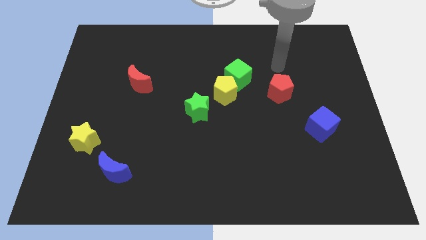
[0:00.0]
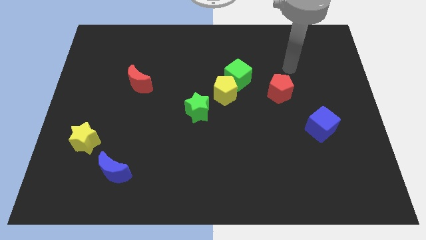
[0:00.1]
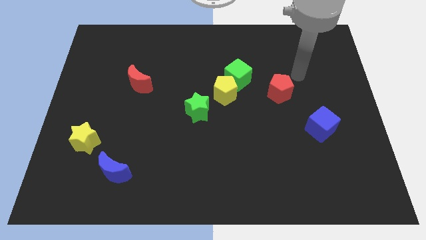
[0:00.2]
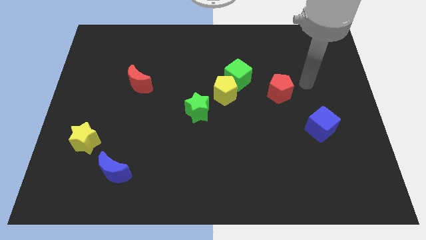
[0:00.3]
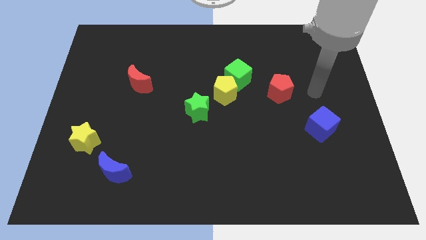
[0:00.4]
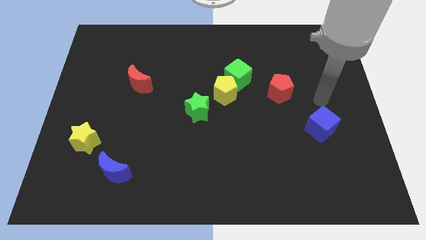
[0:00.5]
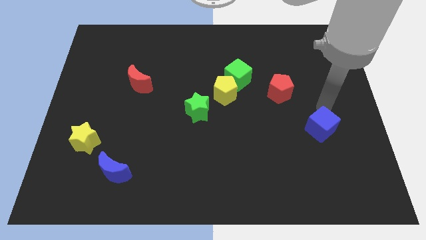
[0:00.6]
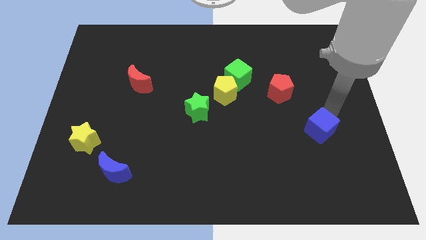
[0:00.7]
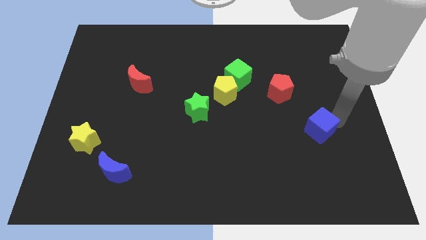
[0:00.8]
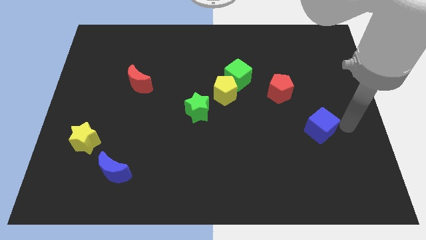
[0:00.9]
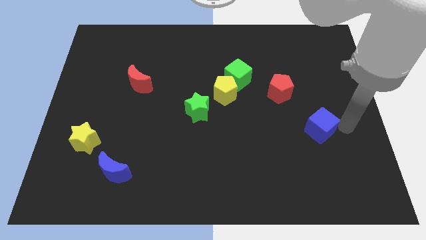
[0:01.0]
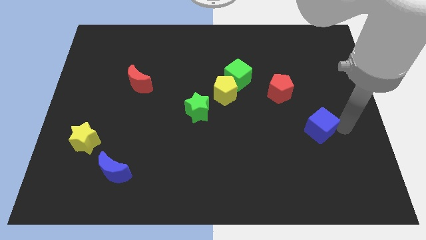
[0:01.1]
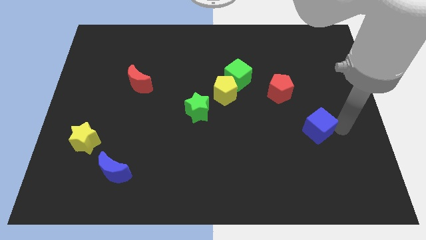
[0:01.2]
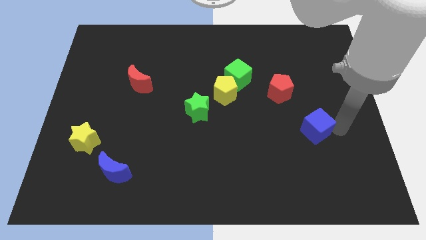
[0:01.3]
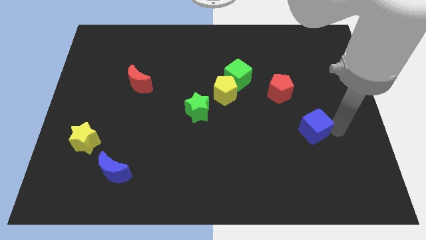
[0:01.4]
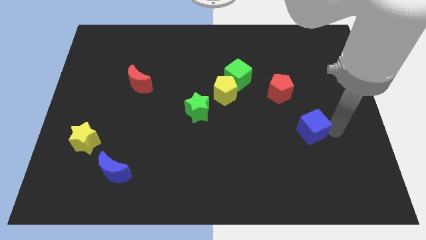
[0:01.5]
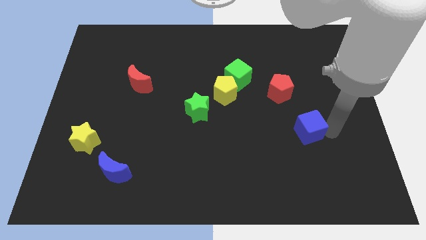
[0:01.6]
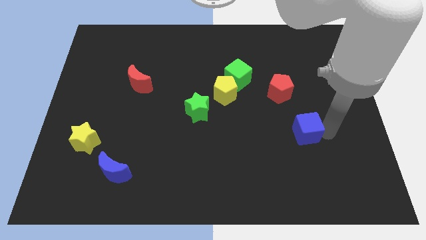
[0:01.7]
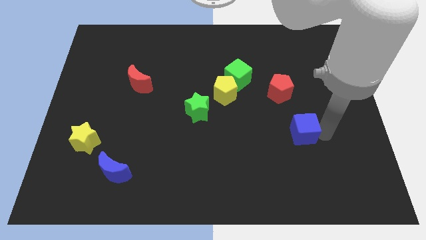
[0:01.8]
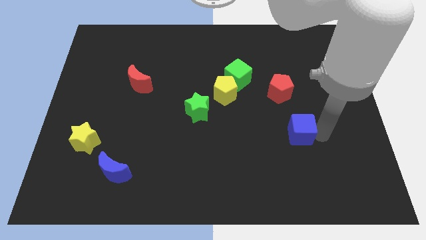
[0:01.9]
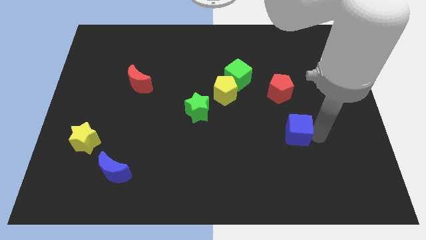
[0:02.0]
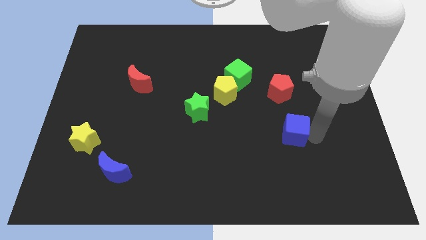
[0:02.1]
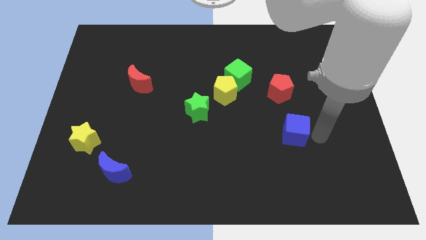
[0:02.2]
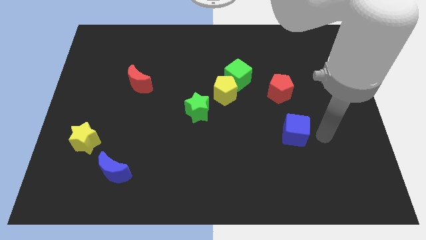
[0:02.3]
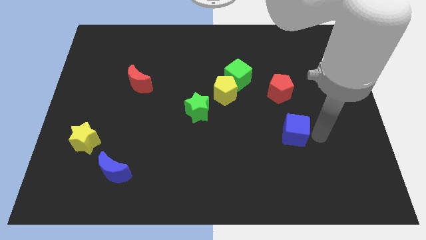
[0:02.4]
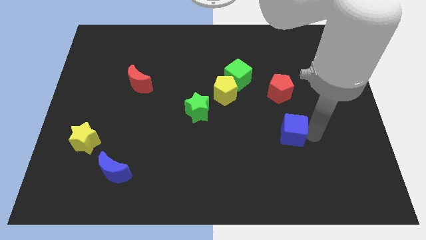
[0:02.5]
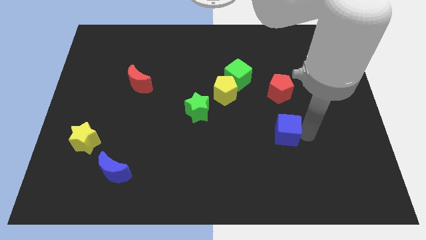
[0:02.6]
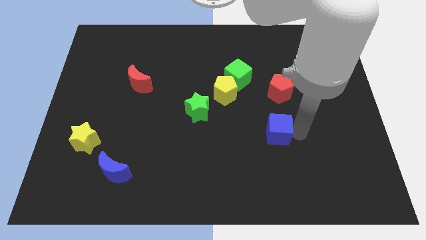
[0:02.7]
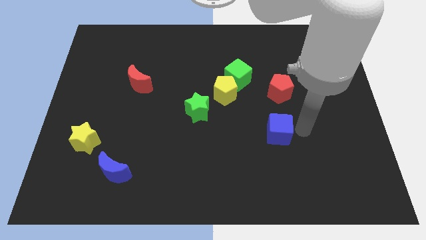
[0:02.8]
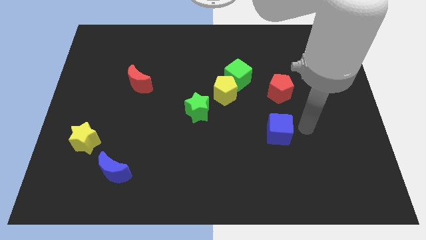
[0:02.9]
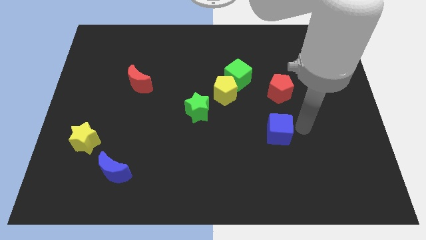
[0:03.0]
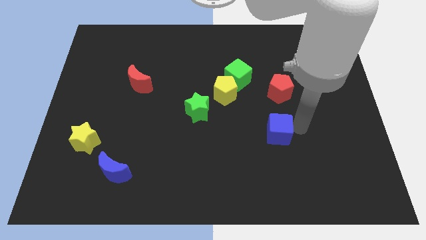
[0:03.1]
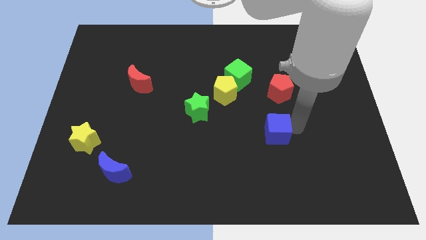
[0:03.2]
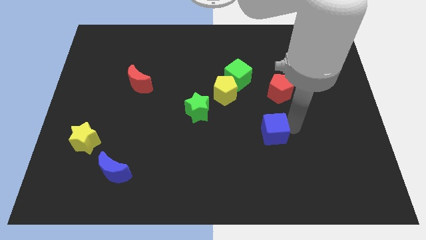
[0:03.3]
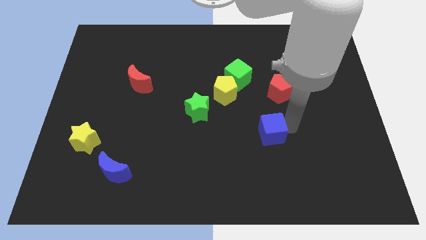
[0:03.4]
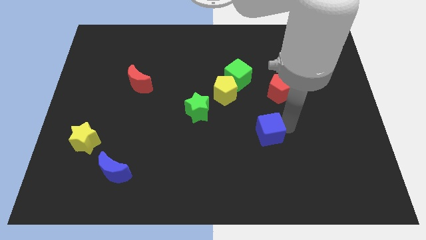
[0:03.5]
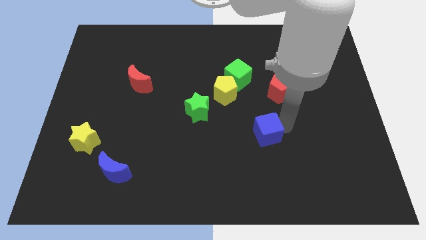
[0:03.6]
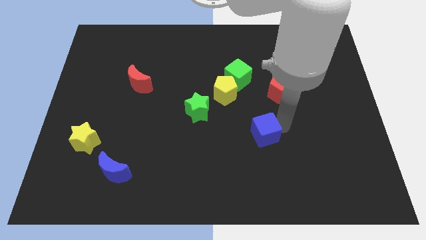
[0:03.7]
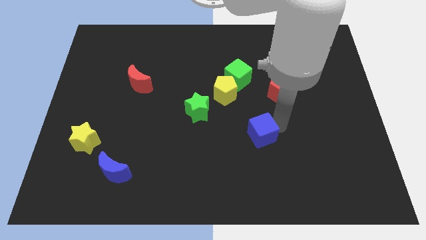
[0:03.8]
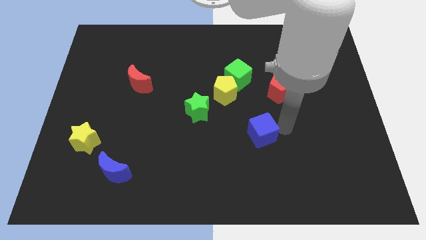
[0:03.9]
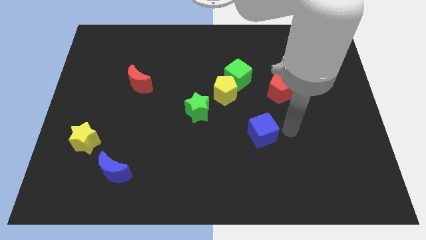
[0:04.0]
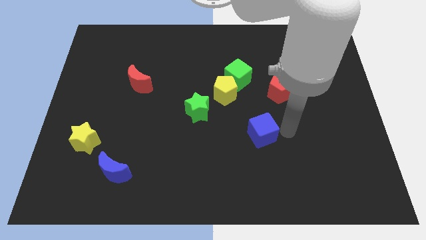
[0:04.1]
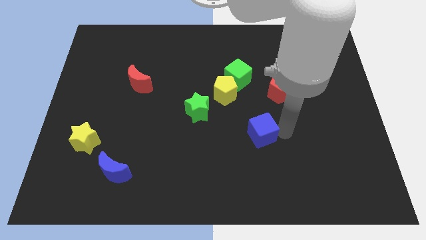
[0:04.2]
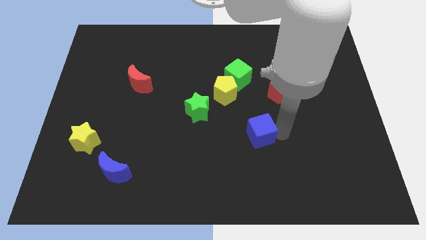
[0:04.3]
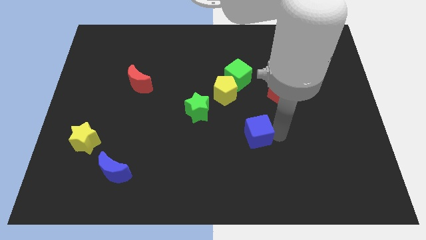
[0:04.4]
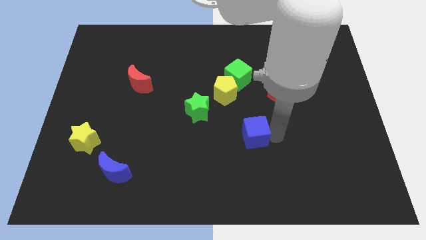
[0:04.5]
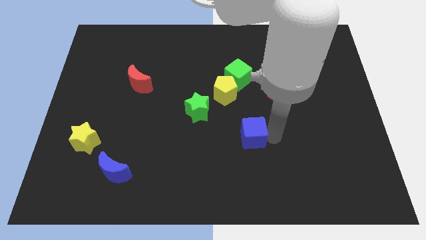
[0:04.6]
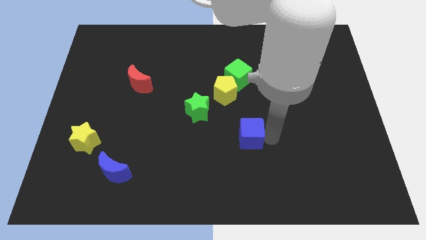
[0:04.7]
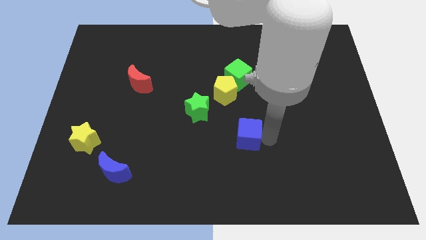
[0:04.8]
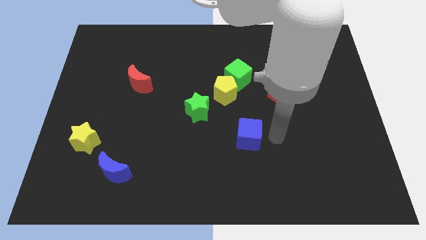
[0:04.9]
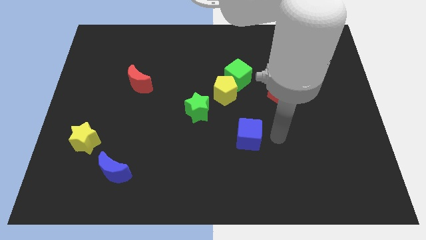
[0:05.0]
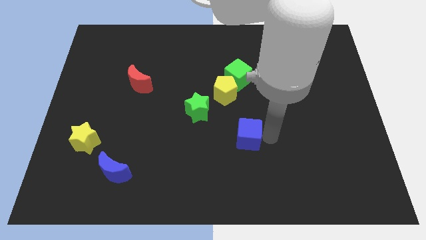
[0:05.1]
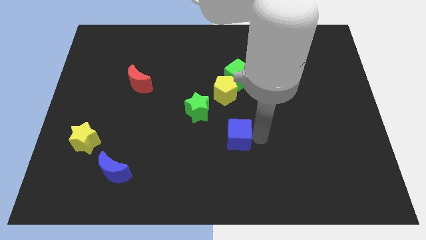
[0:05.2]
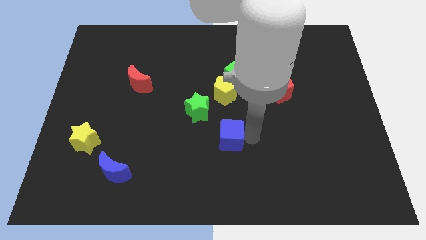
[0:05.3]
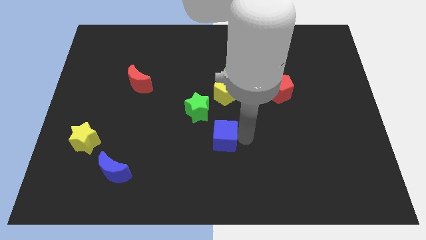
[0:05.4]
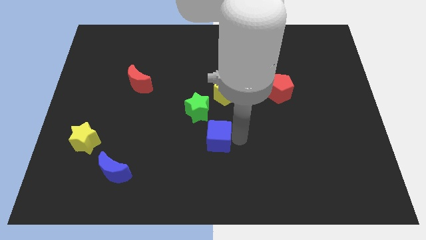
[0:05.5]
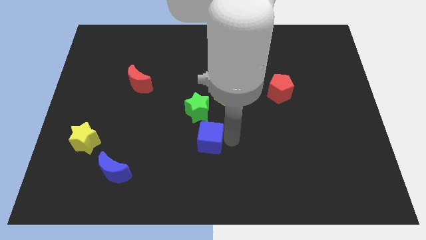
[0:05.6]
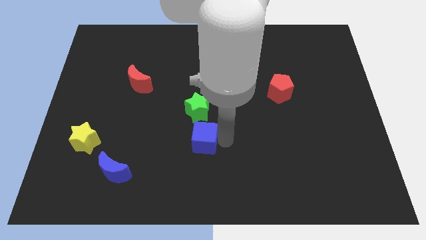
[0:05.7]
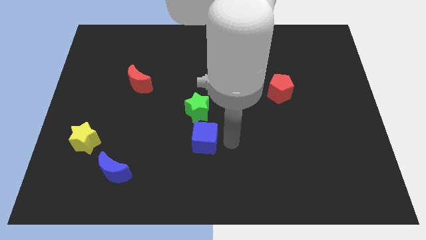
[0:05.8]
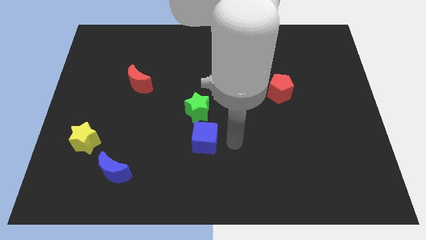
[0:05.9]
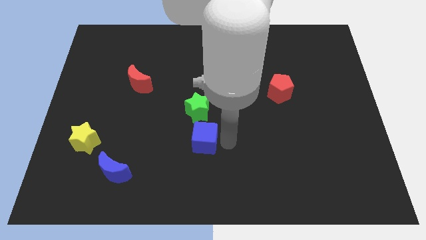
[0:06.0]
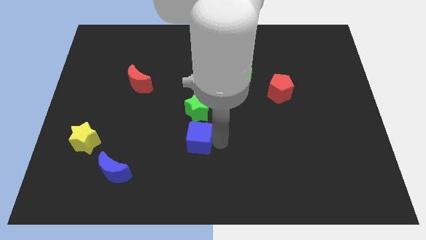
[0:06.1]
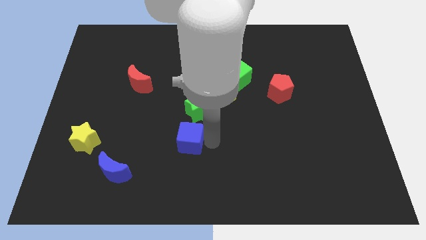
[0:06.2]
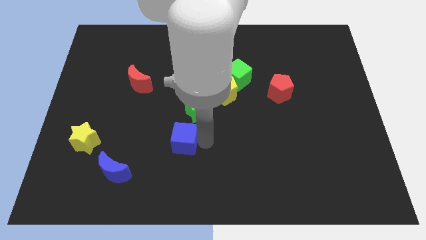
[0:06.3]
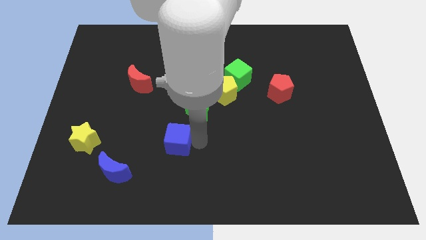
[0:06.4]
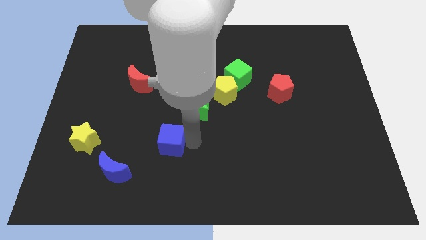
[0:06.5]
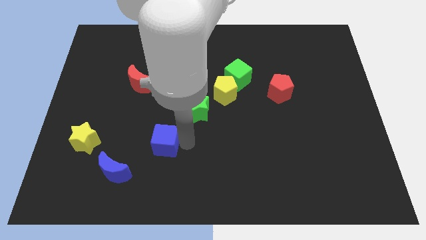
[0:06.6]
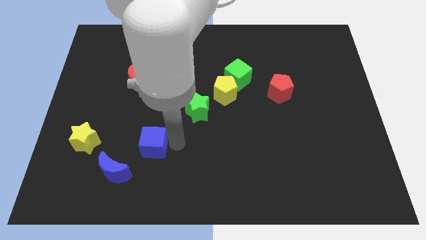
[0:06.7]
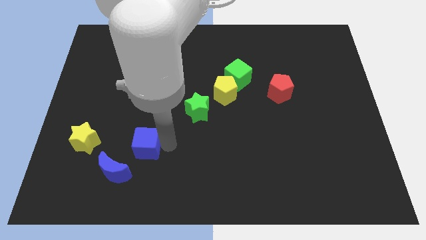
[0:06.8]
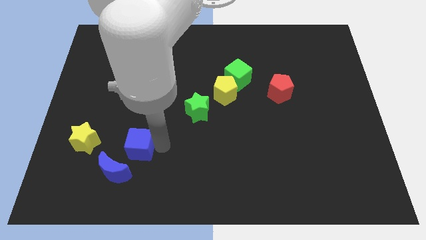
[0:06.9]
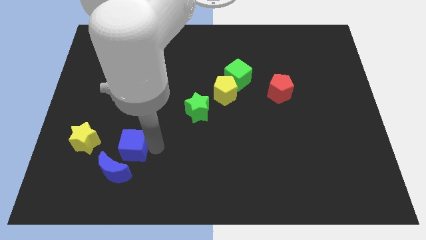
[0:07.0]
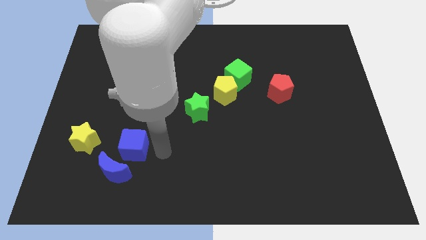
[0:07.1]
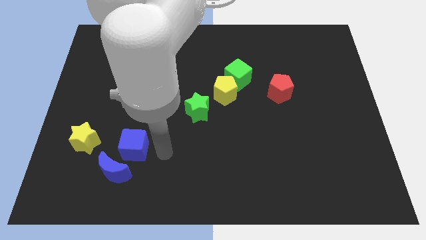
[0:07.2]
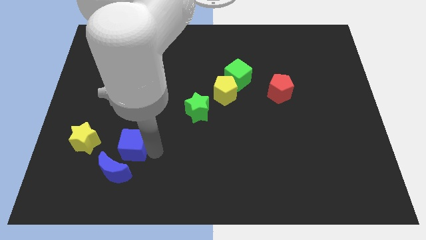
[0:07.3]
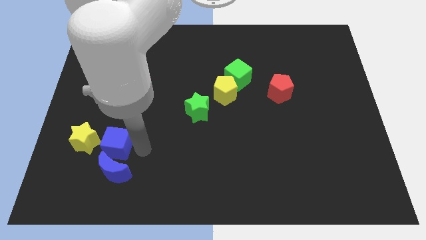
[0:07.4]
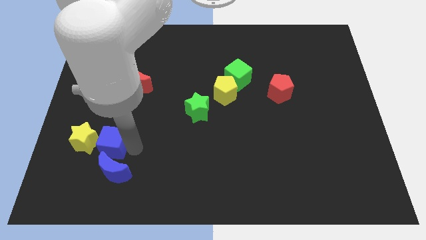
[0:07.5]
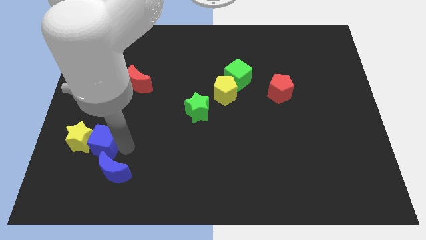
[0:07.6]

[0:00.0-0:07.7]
put the blue cube to the yellow star
